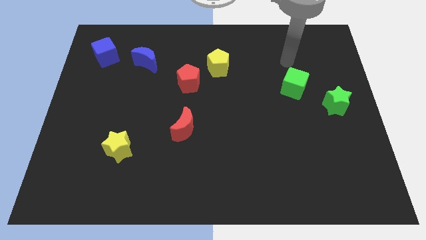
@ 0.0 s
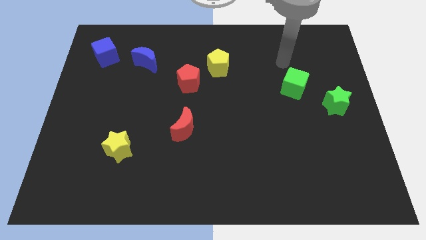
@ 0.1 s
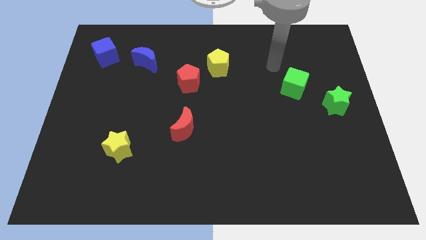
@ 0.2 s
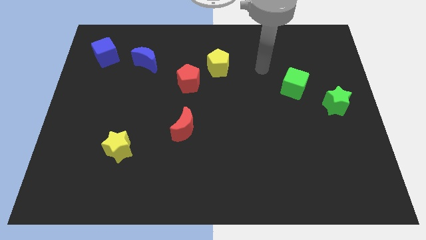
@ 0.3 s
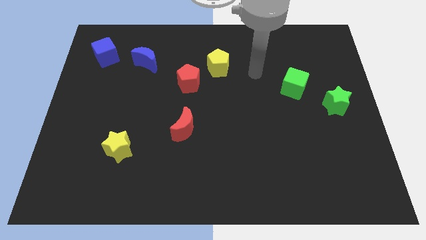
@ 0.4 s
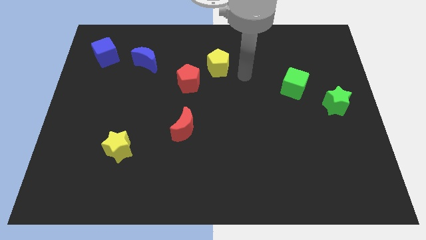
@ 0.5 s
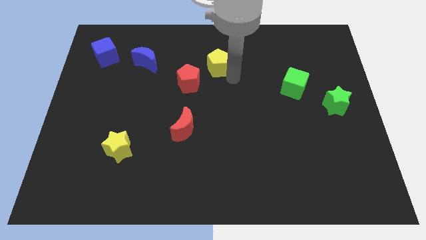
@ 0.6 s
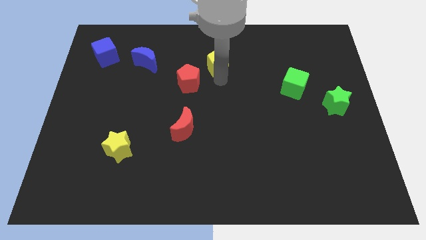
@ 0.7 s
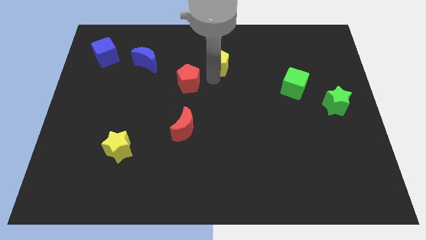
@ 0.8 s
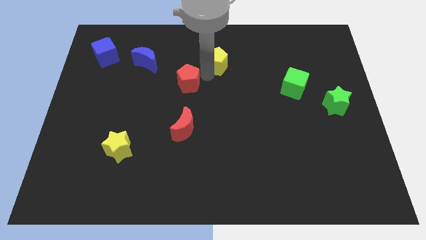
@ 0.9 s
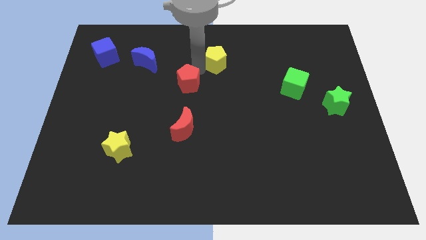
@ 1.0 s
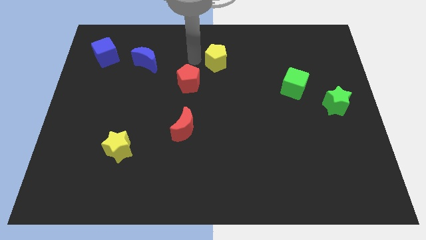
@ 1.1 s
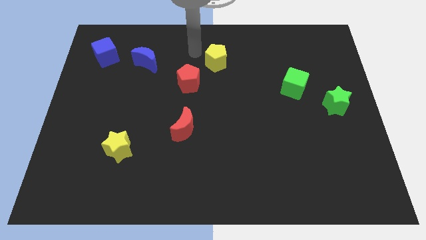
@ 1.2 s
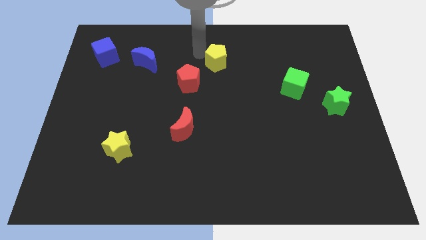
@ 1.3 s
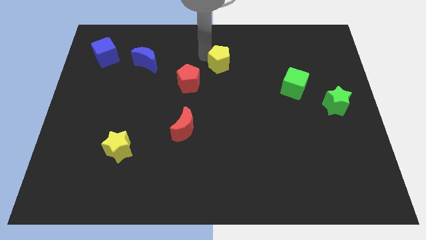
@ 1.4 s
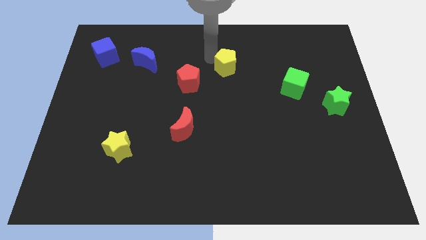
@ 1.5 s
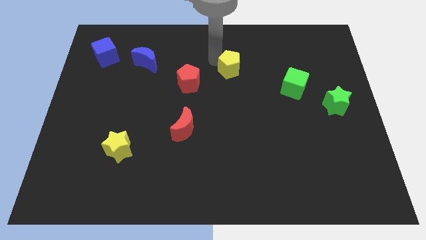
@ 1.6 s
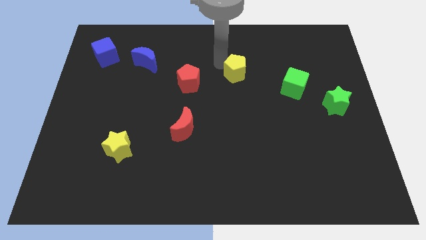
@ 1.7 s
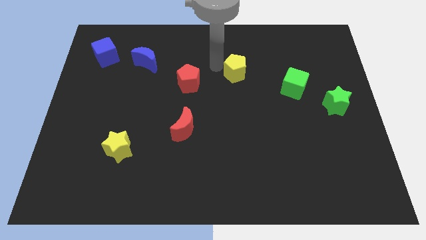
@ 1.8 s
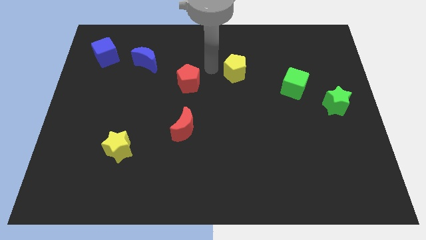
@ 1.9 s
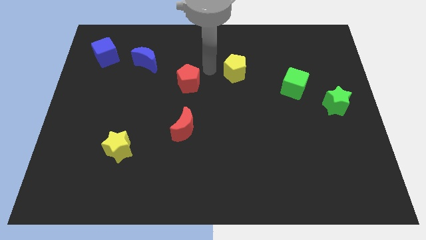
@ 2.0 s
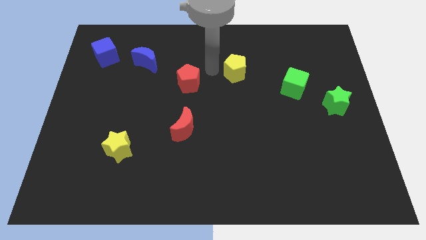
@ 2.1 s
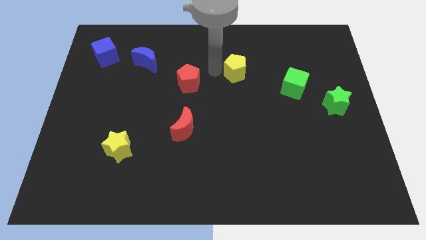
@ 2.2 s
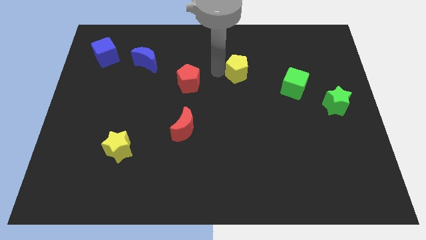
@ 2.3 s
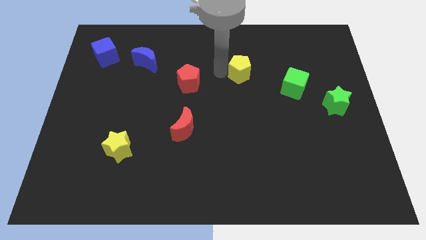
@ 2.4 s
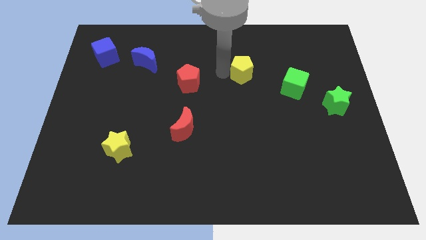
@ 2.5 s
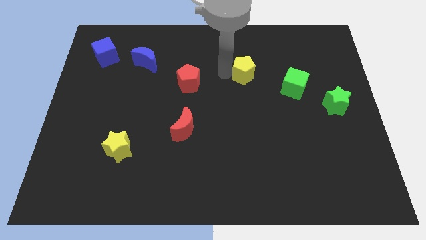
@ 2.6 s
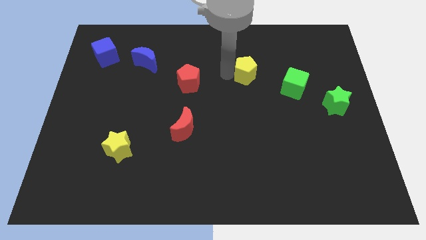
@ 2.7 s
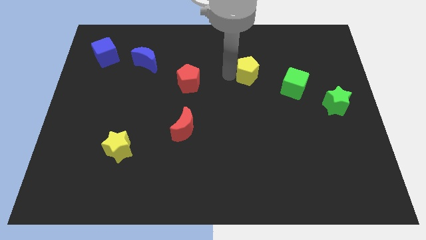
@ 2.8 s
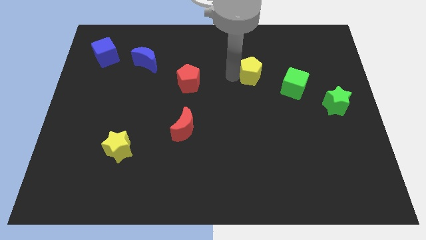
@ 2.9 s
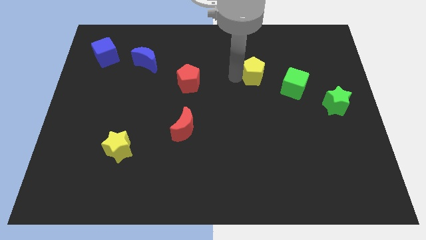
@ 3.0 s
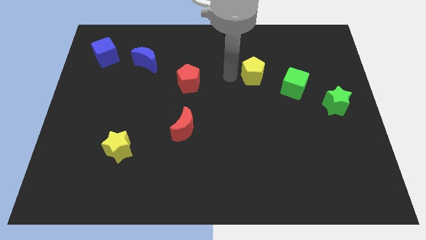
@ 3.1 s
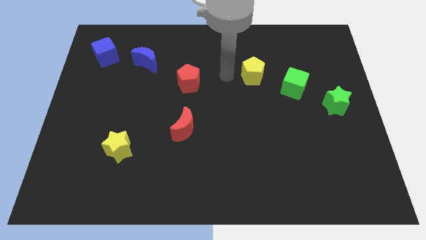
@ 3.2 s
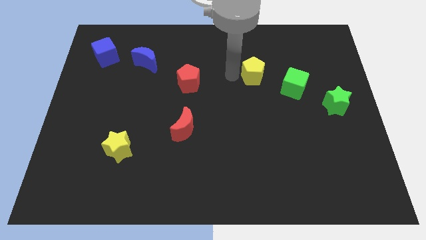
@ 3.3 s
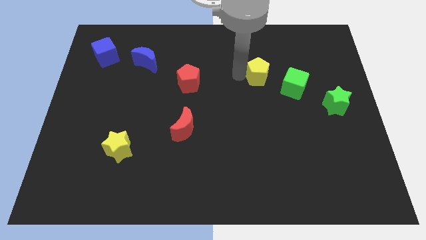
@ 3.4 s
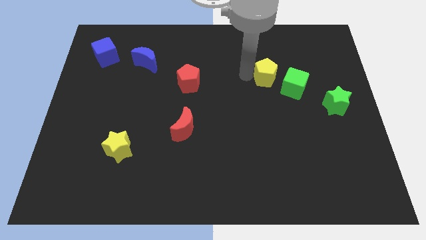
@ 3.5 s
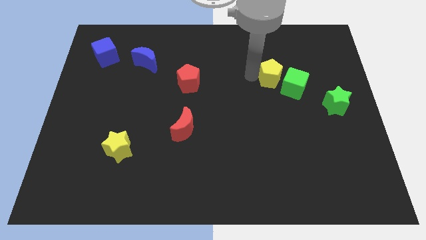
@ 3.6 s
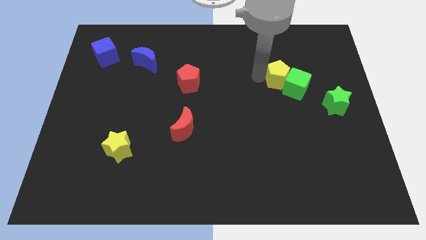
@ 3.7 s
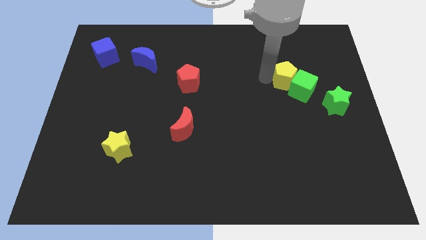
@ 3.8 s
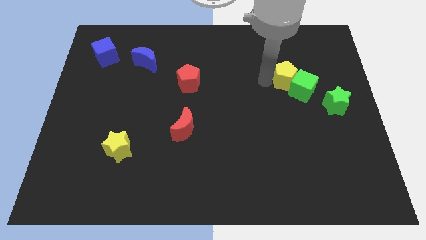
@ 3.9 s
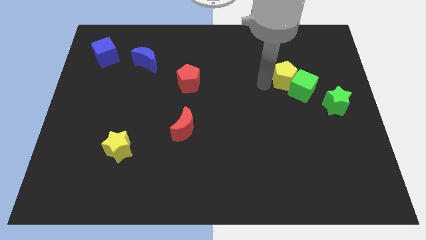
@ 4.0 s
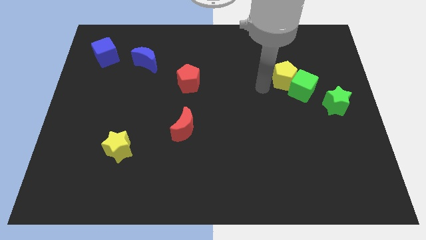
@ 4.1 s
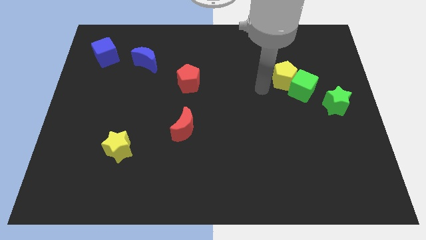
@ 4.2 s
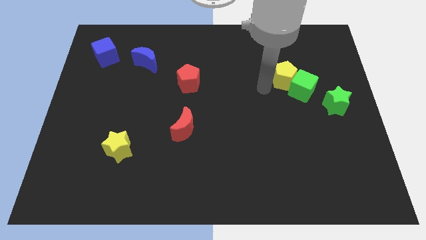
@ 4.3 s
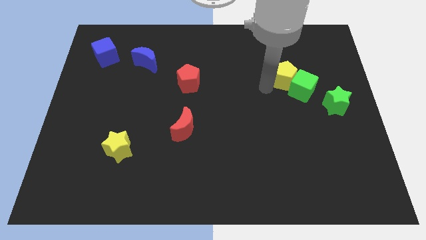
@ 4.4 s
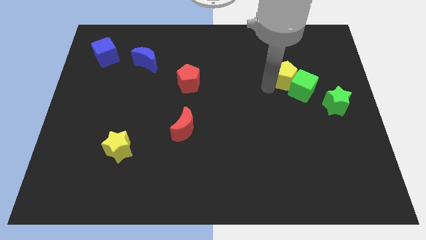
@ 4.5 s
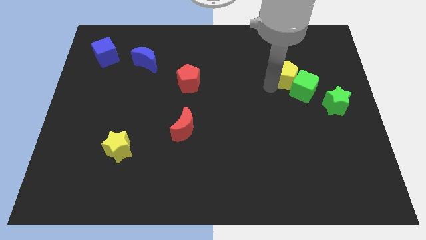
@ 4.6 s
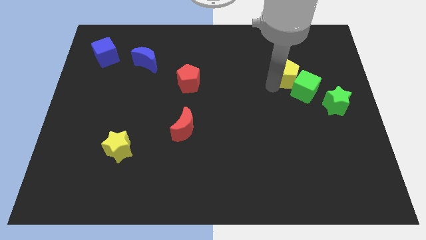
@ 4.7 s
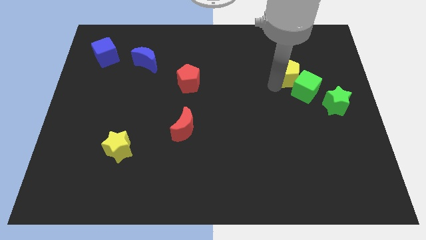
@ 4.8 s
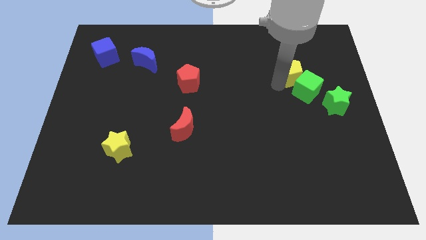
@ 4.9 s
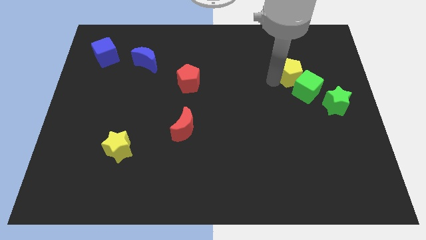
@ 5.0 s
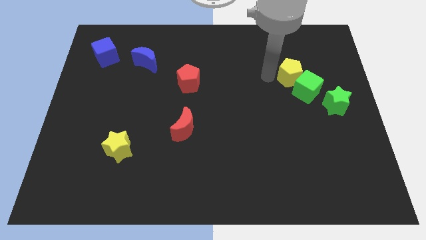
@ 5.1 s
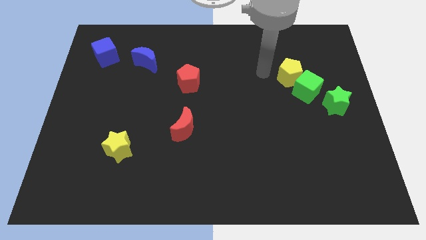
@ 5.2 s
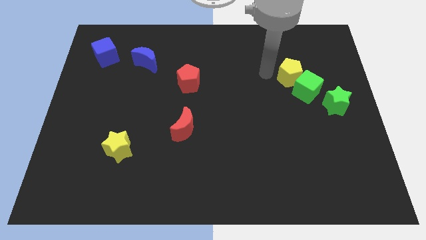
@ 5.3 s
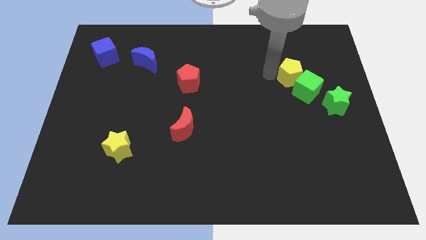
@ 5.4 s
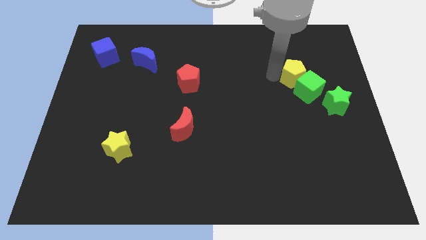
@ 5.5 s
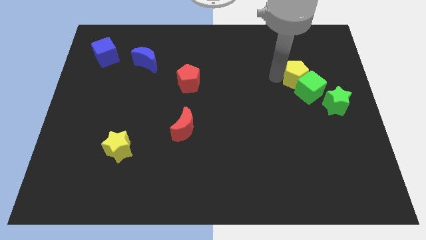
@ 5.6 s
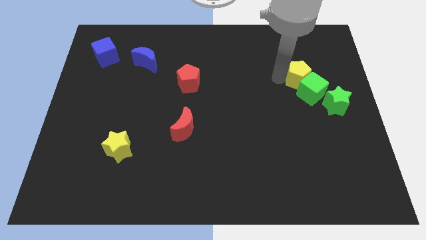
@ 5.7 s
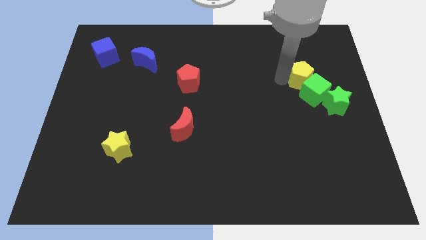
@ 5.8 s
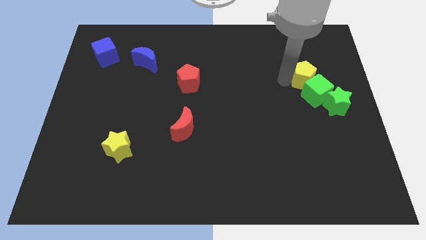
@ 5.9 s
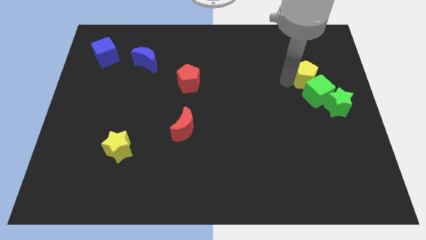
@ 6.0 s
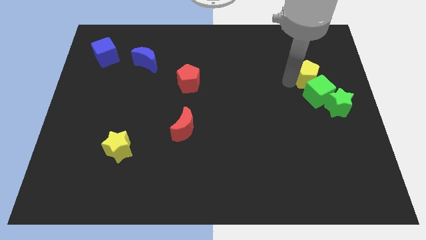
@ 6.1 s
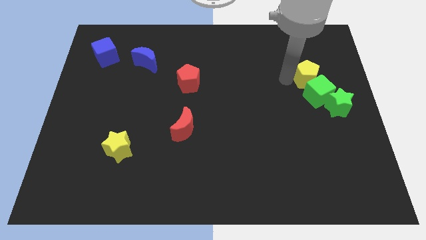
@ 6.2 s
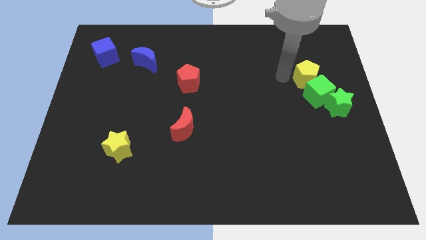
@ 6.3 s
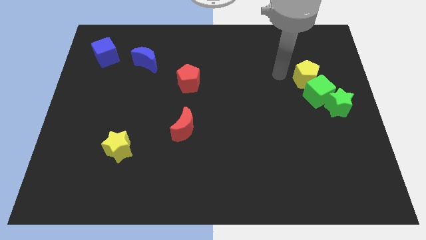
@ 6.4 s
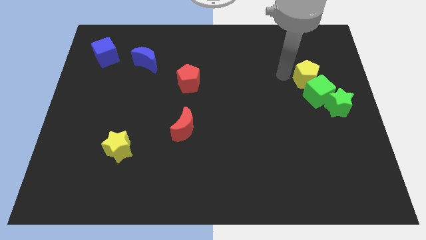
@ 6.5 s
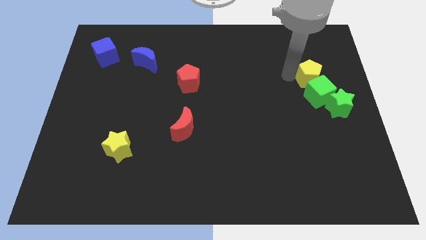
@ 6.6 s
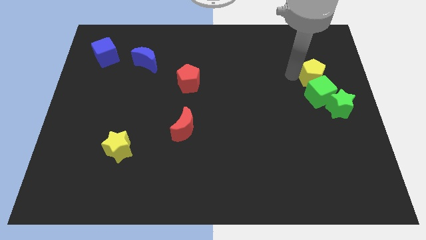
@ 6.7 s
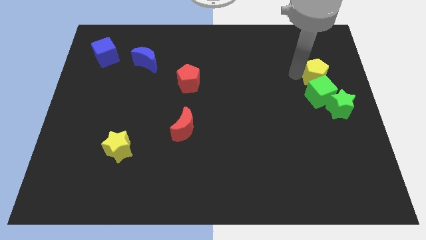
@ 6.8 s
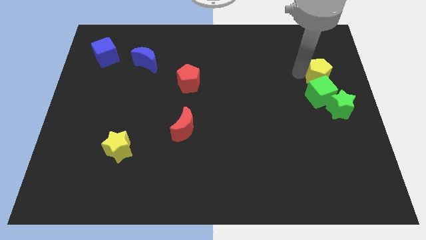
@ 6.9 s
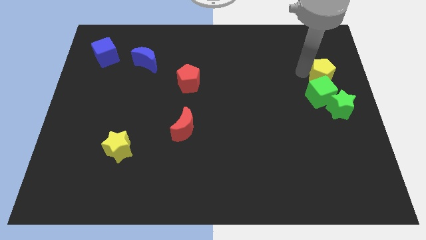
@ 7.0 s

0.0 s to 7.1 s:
move the yellow pentagon to the right side of the board
